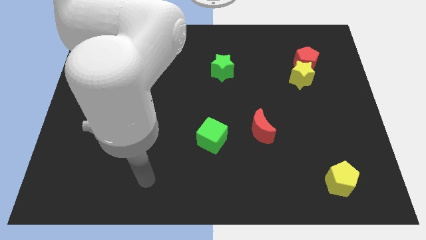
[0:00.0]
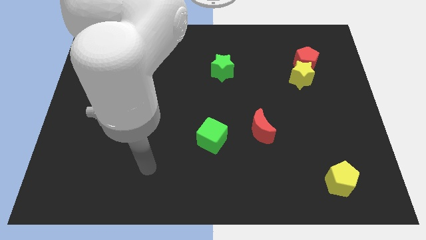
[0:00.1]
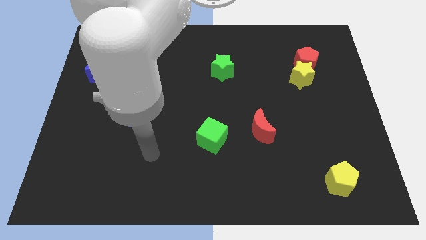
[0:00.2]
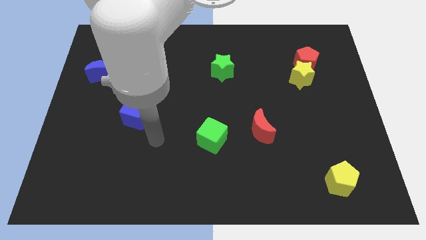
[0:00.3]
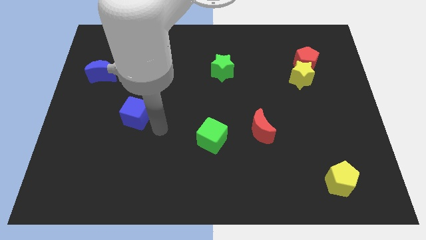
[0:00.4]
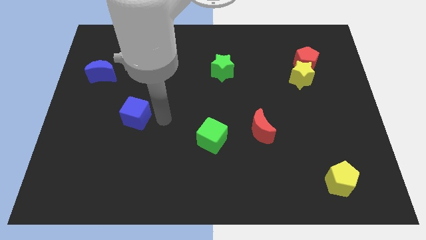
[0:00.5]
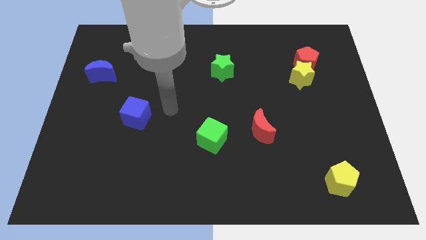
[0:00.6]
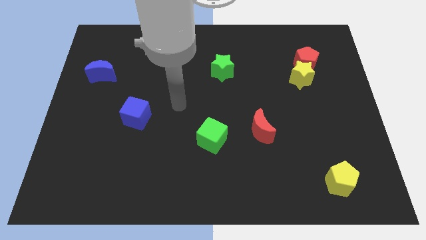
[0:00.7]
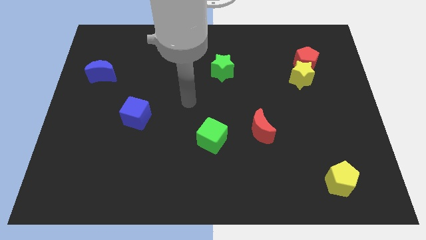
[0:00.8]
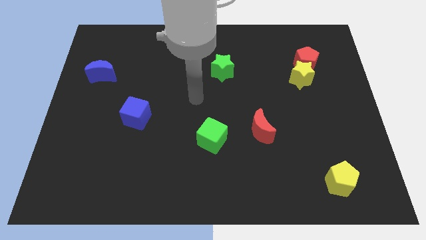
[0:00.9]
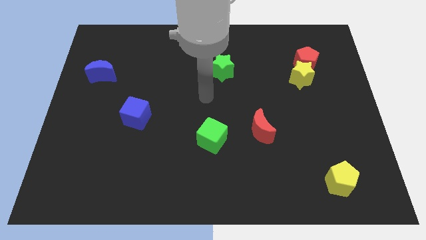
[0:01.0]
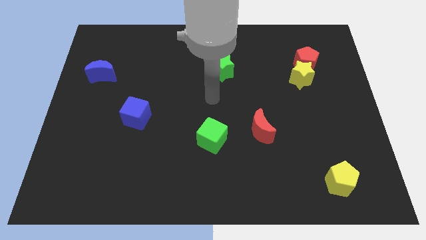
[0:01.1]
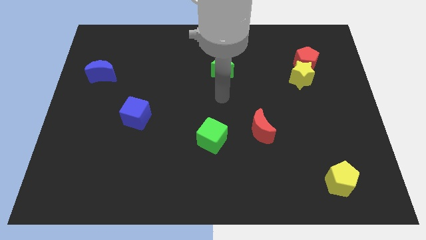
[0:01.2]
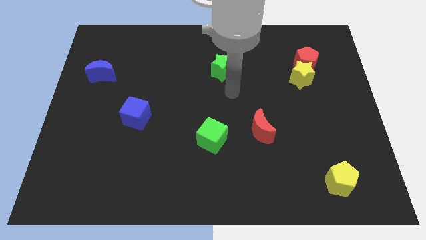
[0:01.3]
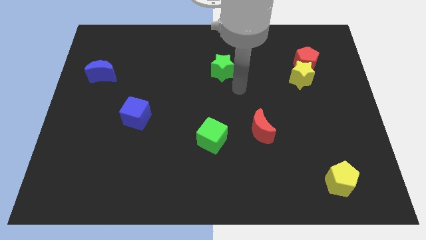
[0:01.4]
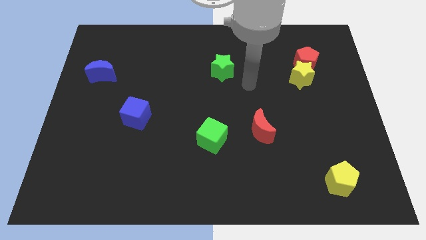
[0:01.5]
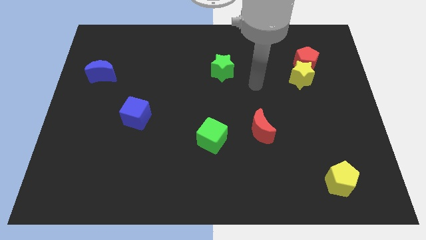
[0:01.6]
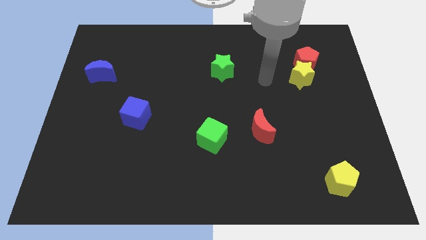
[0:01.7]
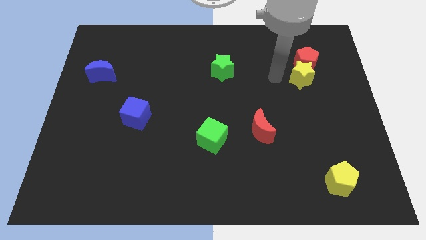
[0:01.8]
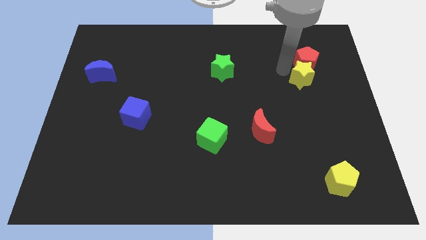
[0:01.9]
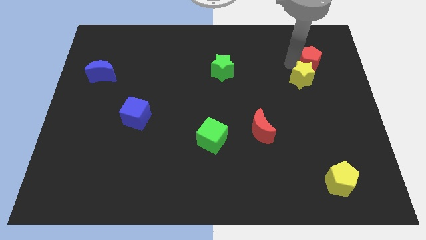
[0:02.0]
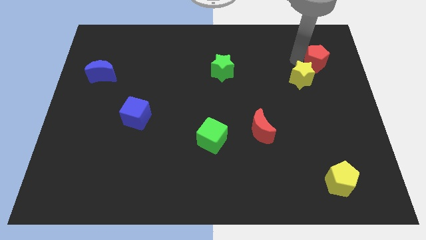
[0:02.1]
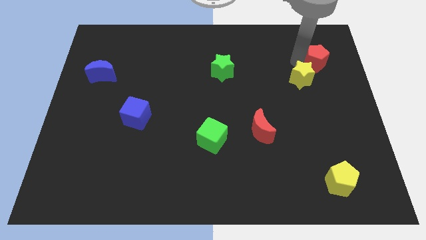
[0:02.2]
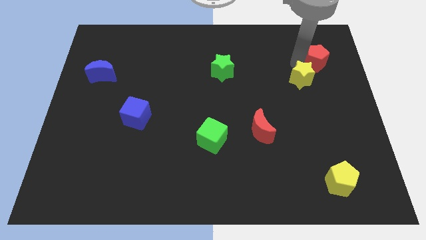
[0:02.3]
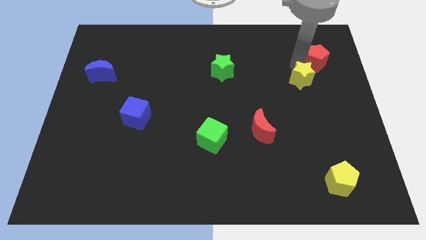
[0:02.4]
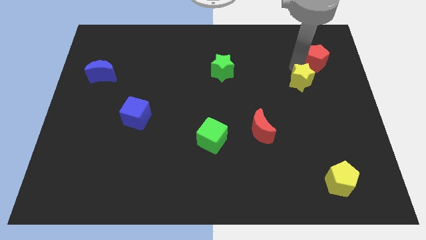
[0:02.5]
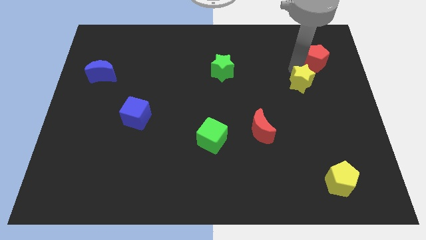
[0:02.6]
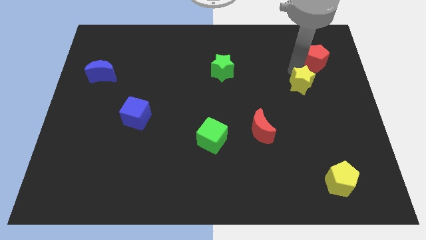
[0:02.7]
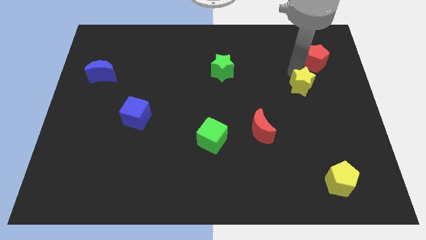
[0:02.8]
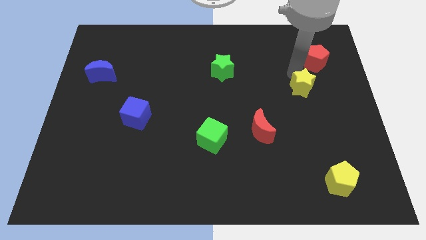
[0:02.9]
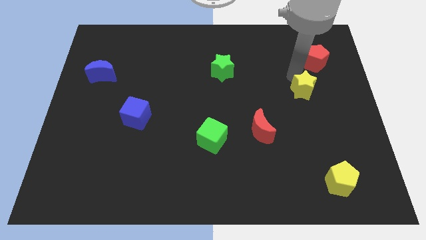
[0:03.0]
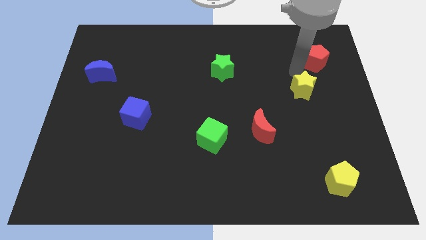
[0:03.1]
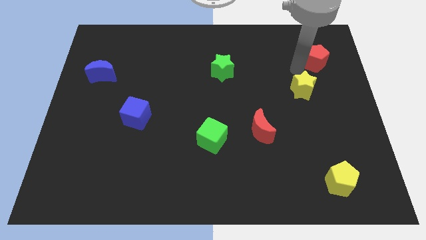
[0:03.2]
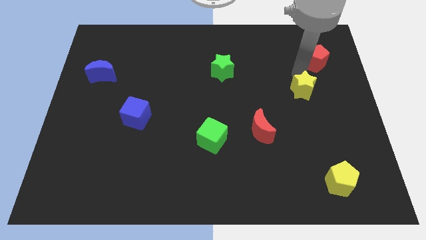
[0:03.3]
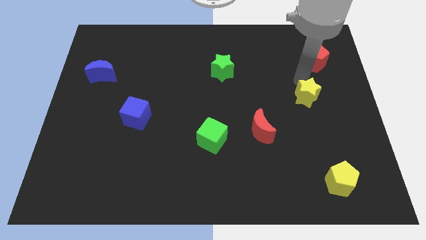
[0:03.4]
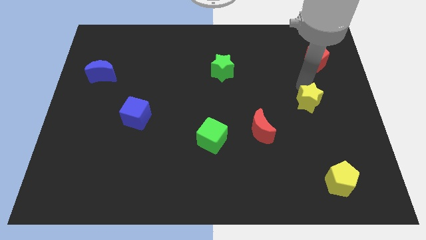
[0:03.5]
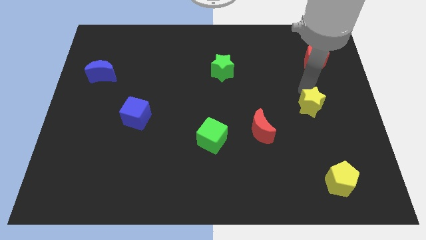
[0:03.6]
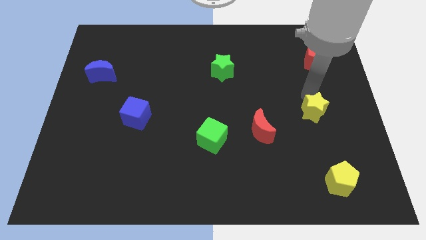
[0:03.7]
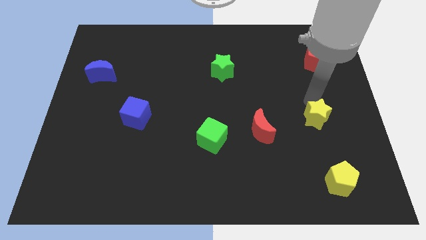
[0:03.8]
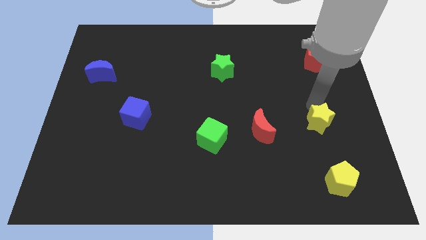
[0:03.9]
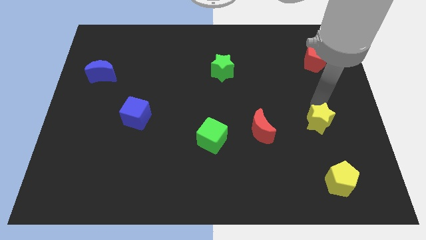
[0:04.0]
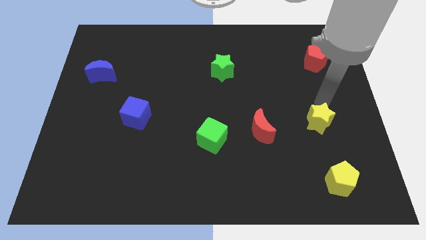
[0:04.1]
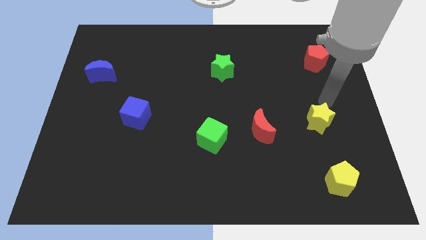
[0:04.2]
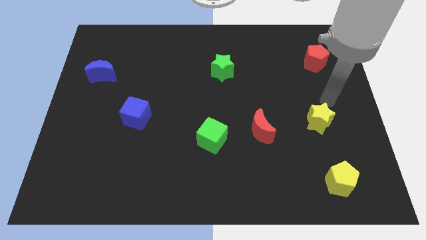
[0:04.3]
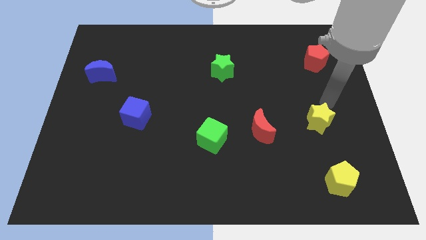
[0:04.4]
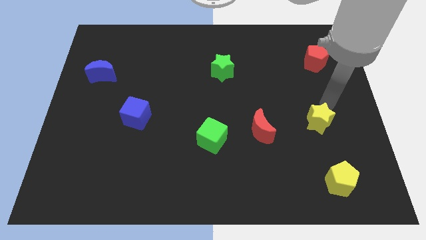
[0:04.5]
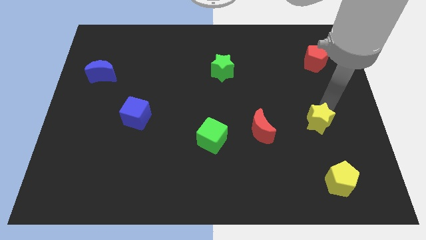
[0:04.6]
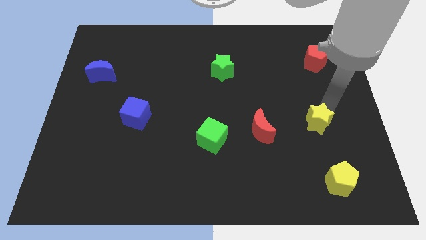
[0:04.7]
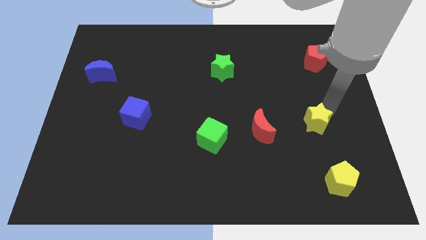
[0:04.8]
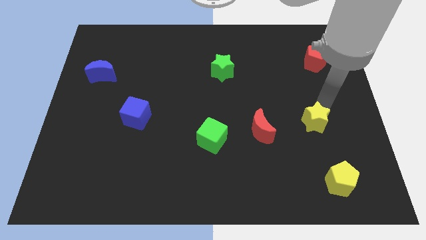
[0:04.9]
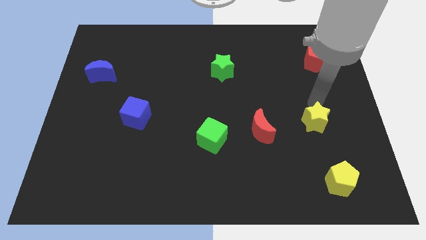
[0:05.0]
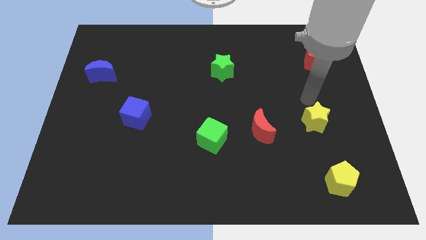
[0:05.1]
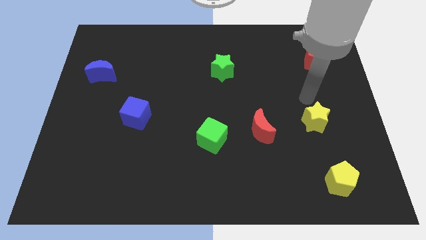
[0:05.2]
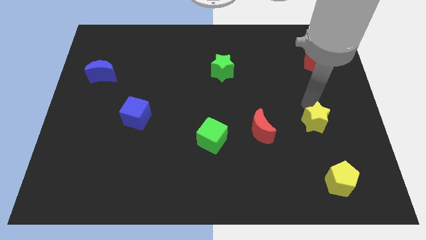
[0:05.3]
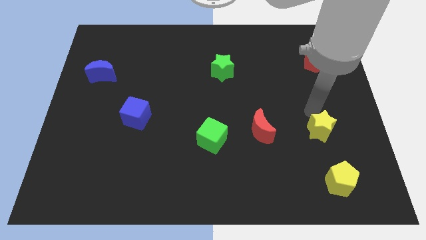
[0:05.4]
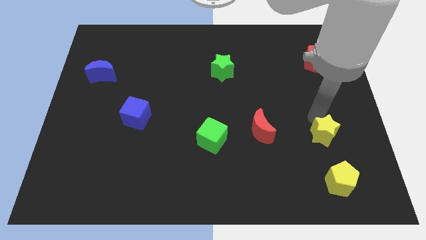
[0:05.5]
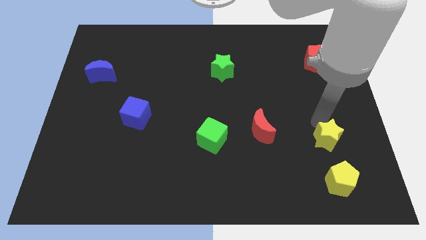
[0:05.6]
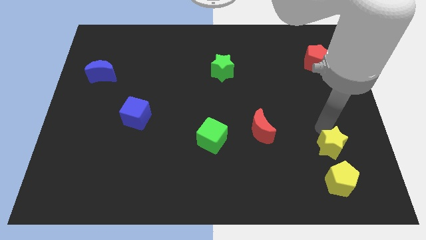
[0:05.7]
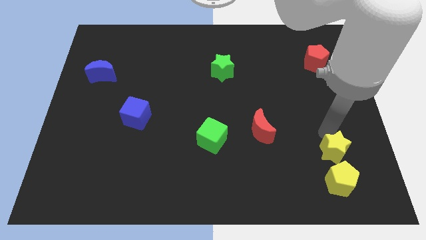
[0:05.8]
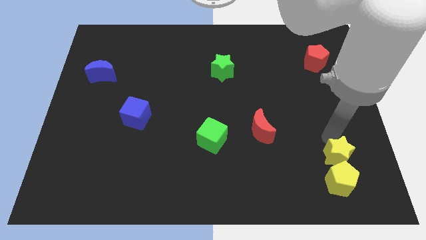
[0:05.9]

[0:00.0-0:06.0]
move the yellow star close to the yellow pentagon

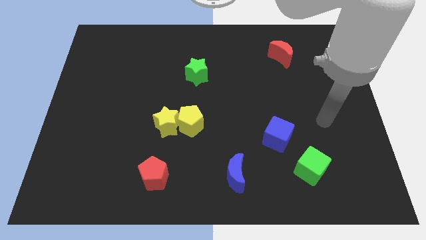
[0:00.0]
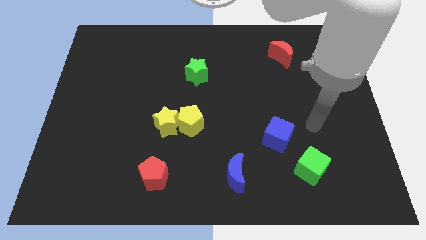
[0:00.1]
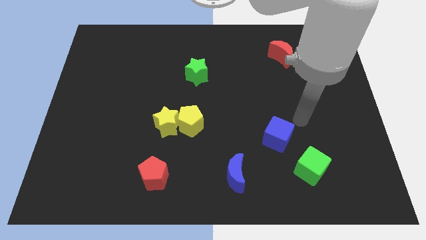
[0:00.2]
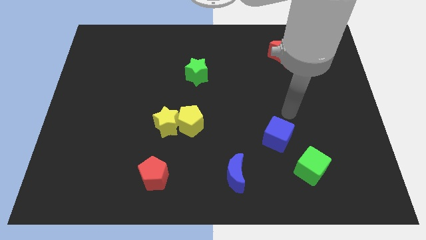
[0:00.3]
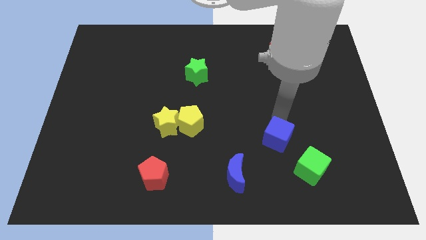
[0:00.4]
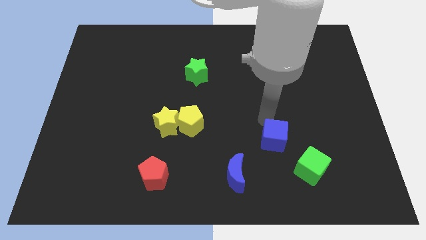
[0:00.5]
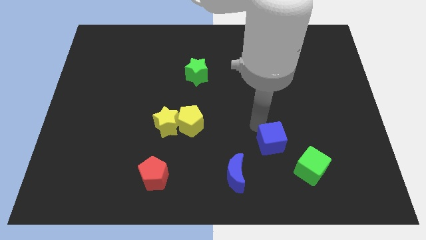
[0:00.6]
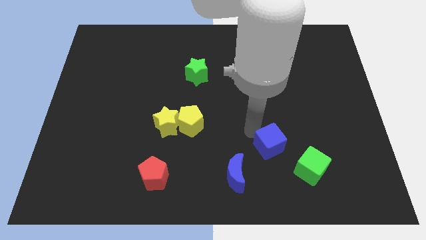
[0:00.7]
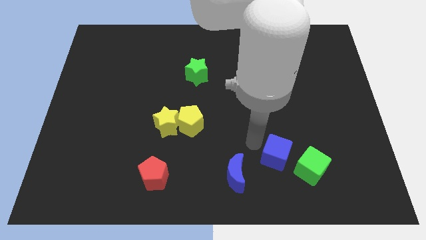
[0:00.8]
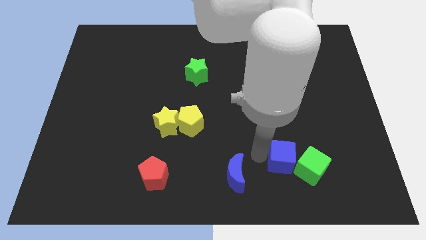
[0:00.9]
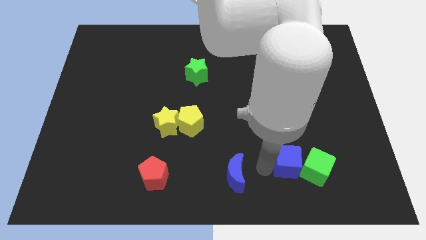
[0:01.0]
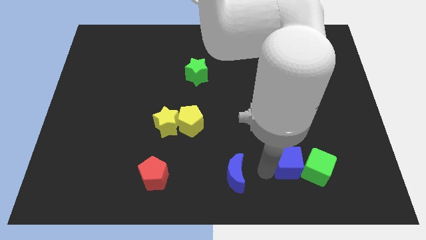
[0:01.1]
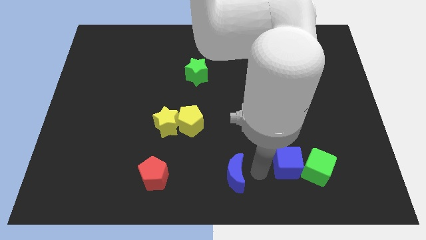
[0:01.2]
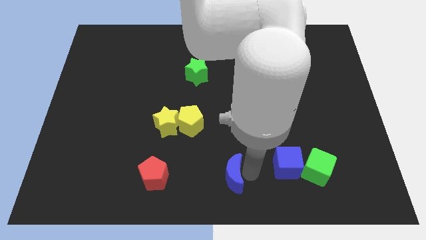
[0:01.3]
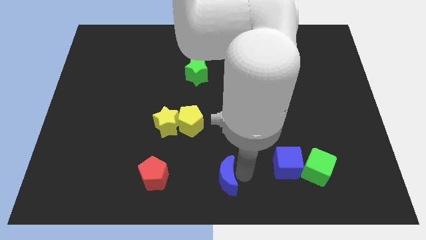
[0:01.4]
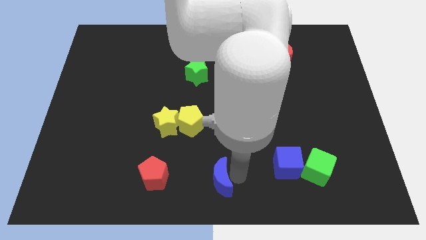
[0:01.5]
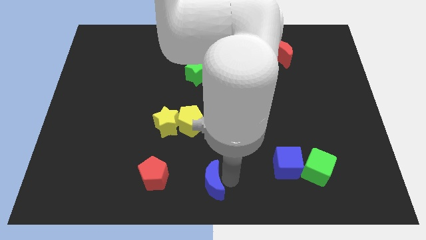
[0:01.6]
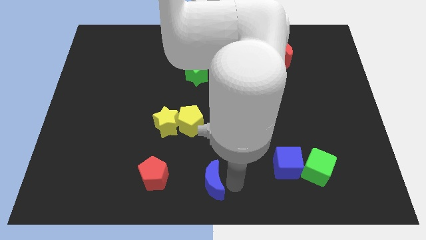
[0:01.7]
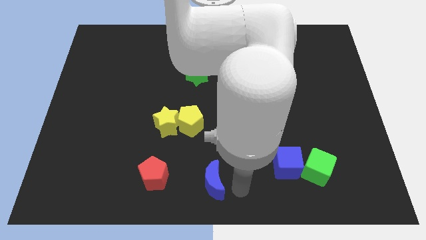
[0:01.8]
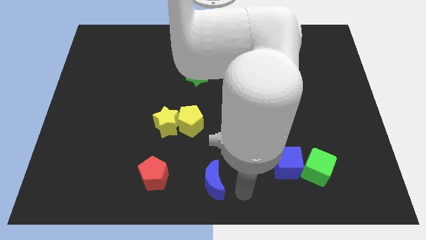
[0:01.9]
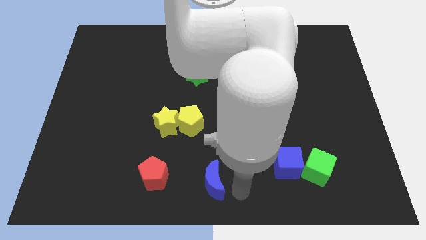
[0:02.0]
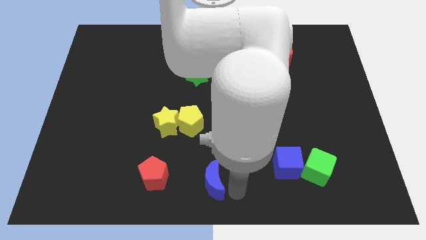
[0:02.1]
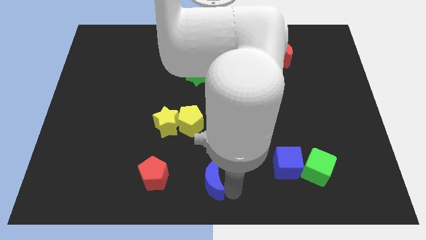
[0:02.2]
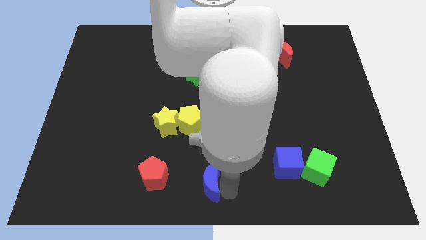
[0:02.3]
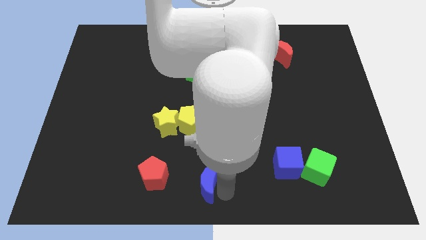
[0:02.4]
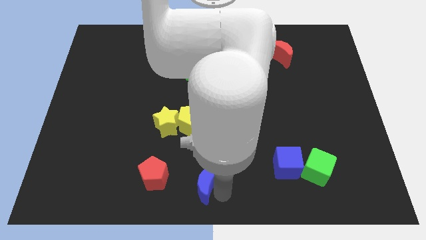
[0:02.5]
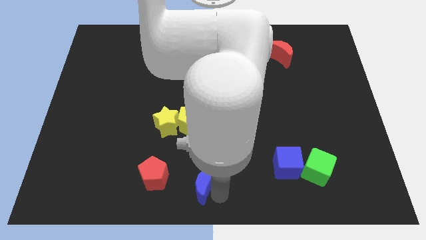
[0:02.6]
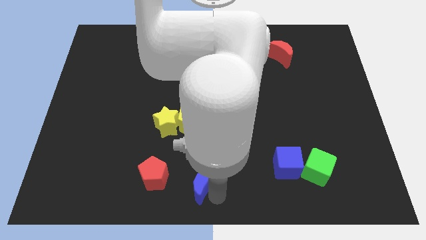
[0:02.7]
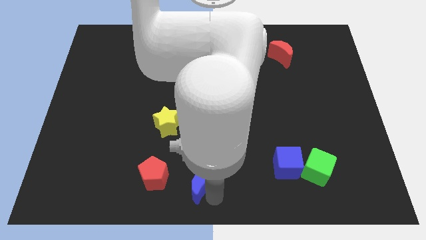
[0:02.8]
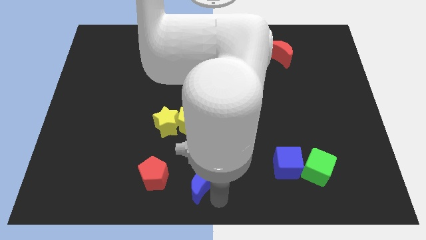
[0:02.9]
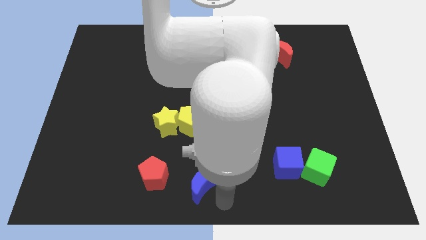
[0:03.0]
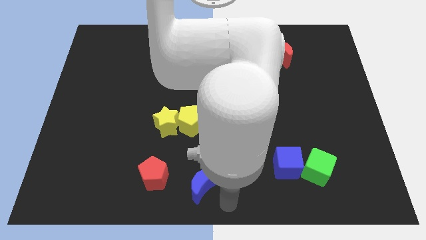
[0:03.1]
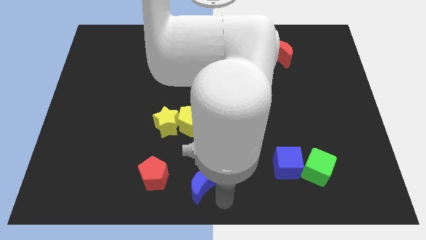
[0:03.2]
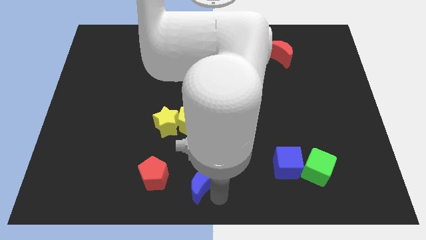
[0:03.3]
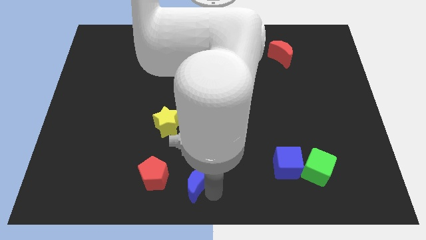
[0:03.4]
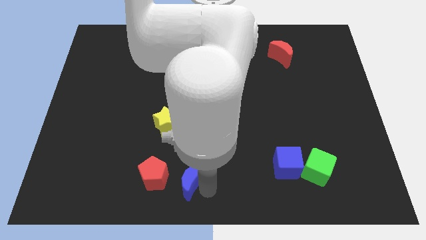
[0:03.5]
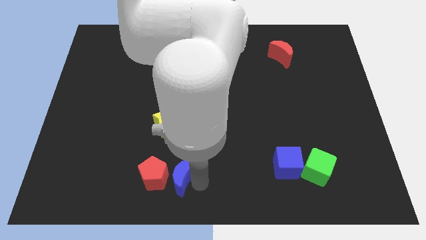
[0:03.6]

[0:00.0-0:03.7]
slide the blue moon close to the red pentagon
